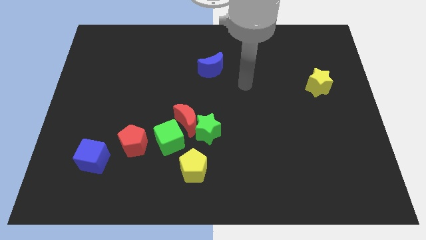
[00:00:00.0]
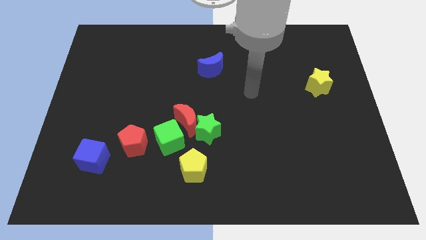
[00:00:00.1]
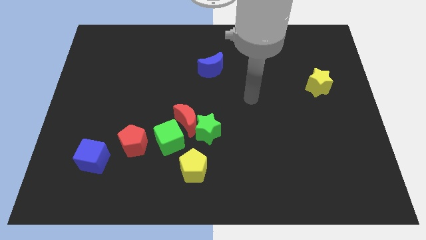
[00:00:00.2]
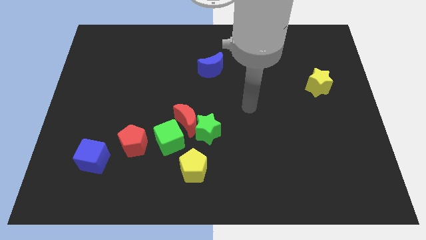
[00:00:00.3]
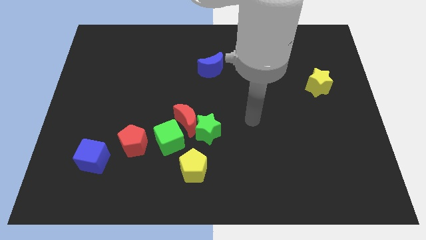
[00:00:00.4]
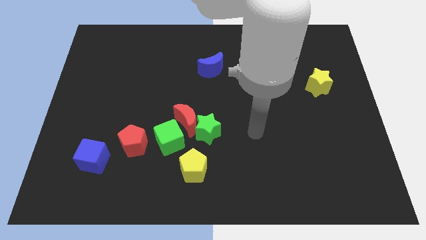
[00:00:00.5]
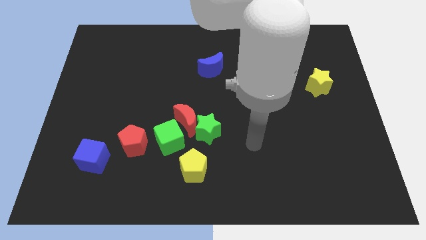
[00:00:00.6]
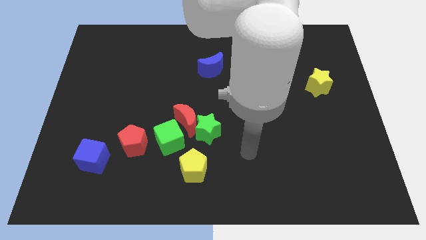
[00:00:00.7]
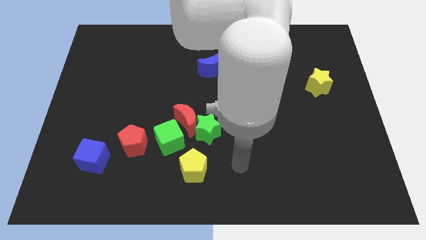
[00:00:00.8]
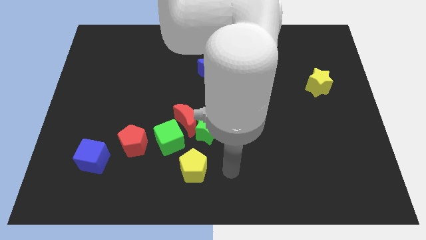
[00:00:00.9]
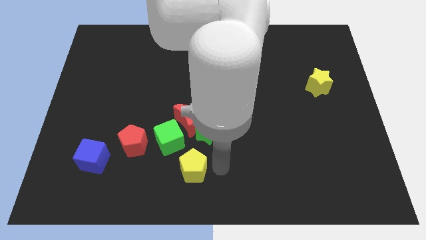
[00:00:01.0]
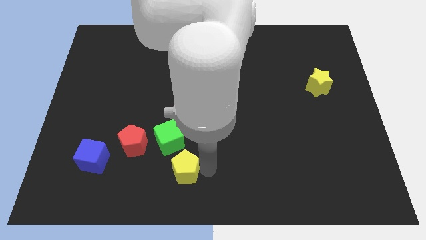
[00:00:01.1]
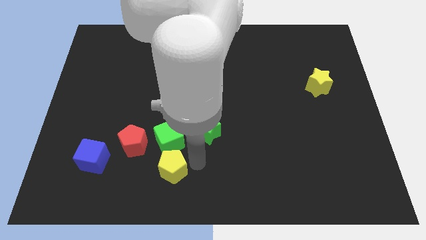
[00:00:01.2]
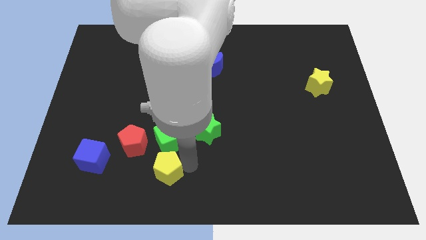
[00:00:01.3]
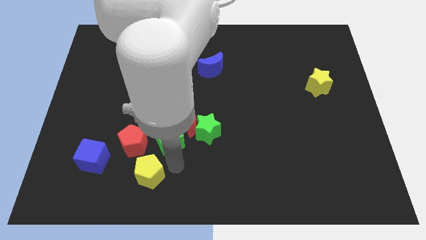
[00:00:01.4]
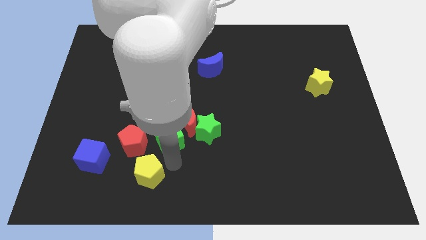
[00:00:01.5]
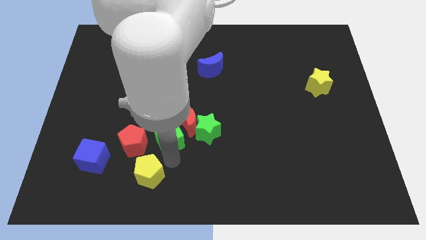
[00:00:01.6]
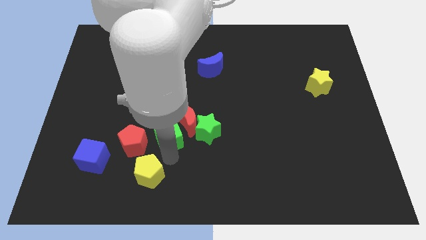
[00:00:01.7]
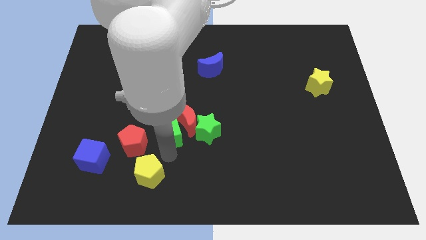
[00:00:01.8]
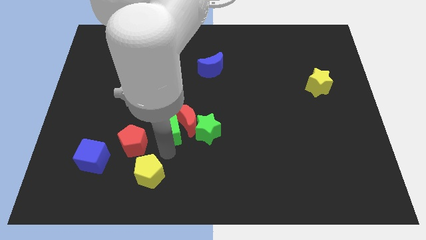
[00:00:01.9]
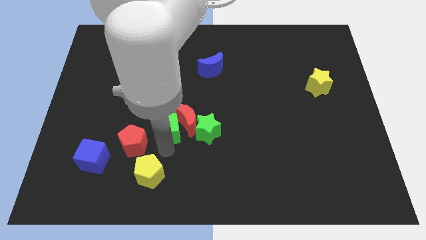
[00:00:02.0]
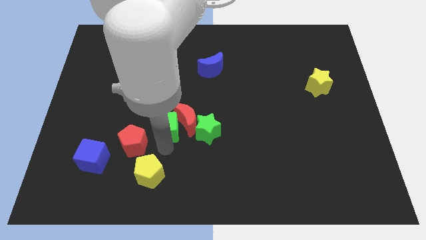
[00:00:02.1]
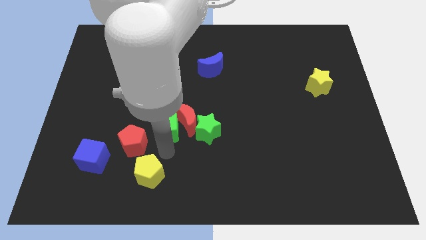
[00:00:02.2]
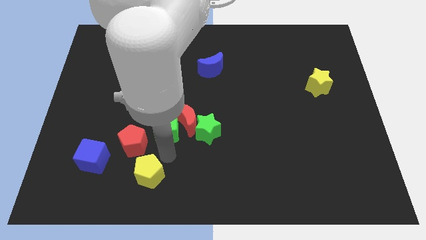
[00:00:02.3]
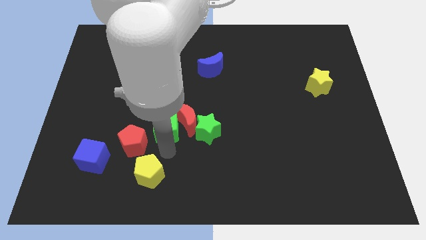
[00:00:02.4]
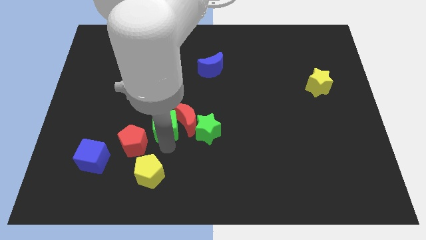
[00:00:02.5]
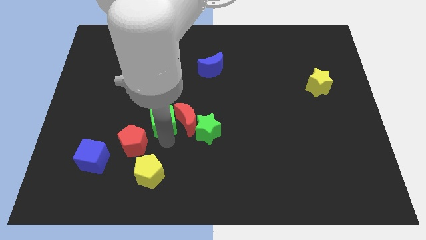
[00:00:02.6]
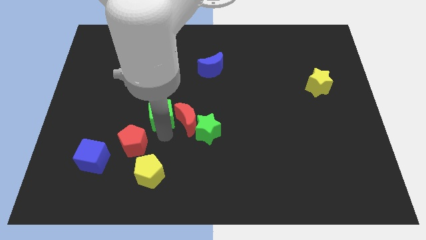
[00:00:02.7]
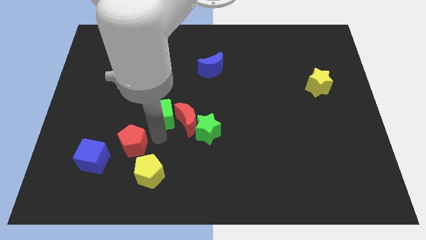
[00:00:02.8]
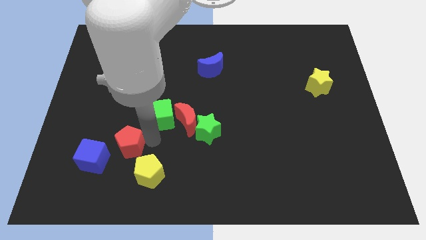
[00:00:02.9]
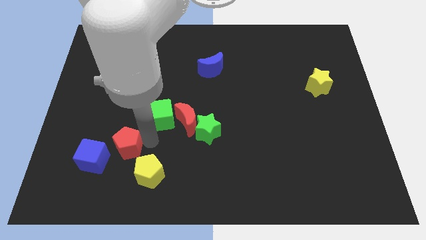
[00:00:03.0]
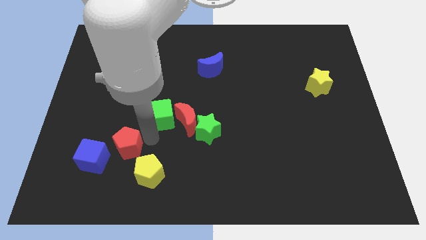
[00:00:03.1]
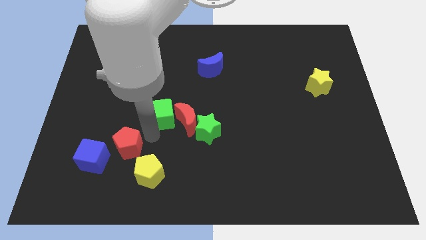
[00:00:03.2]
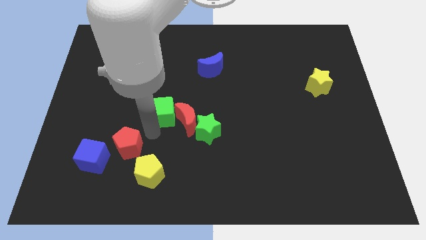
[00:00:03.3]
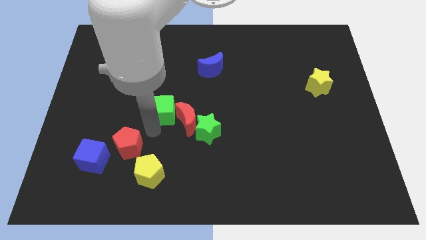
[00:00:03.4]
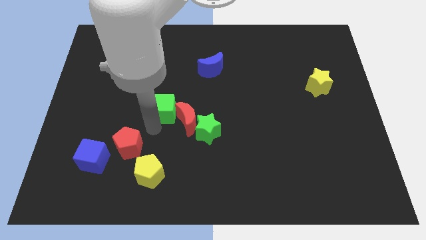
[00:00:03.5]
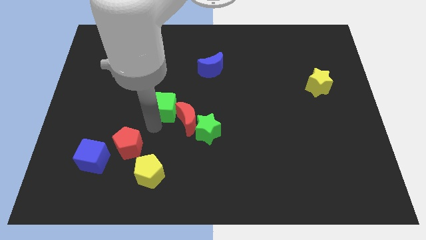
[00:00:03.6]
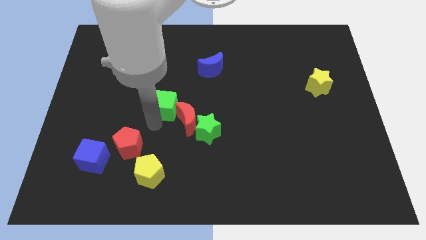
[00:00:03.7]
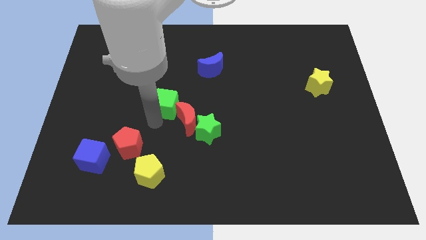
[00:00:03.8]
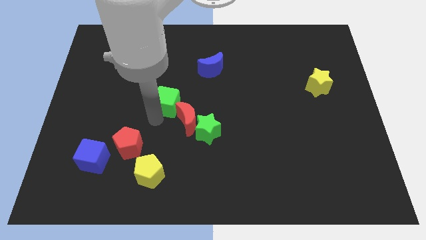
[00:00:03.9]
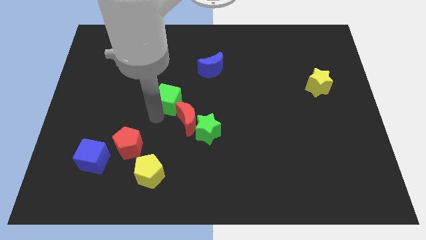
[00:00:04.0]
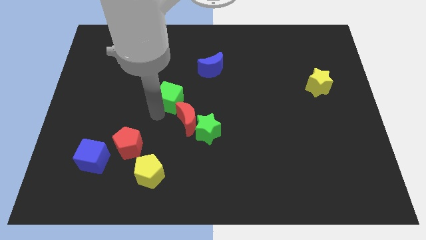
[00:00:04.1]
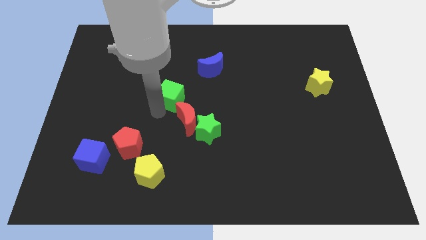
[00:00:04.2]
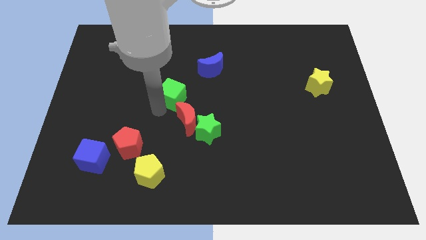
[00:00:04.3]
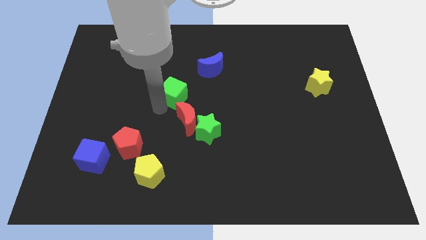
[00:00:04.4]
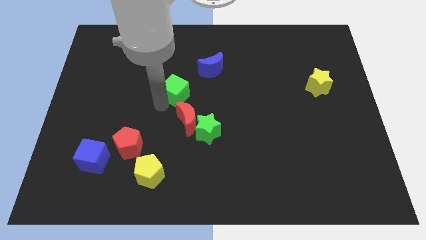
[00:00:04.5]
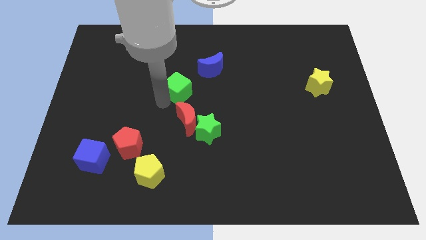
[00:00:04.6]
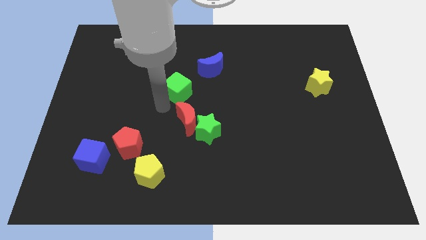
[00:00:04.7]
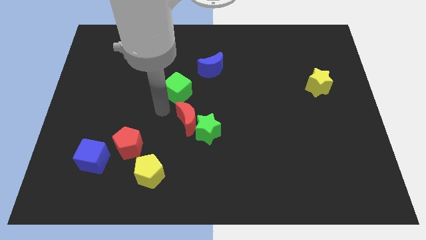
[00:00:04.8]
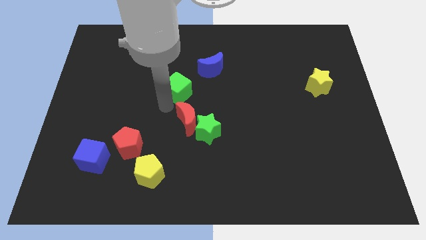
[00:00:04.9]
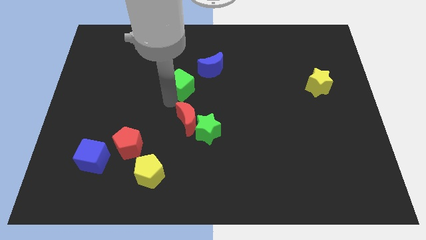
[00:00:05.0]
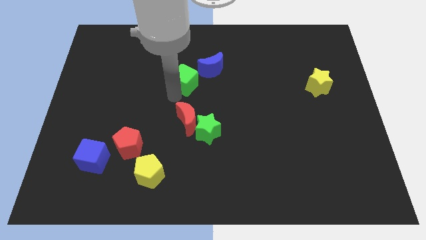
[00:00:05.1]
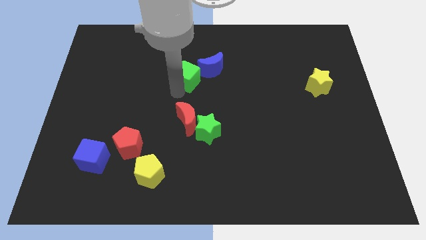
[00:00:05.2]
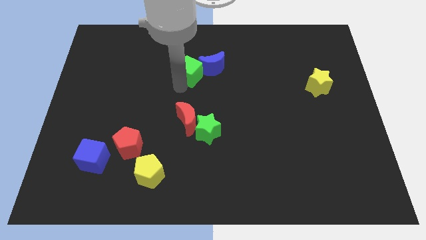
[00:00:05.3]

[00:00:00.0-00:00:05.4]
push the green cube next to the blue moon
